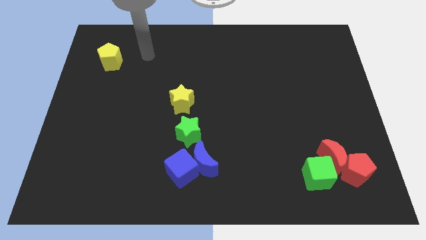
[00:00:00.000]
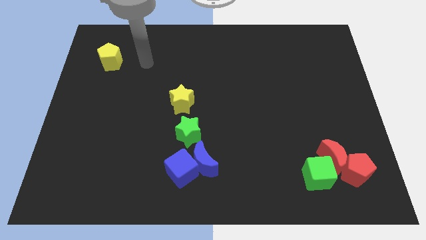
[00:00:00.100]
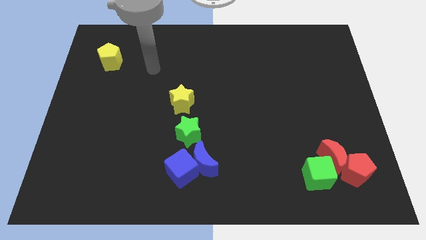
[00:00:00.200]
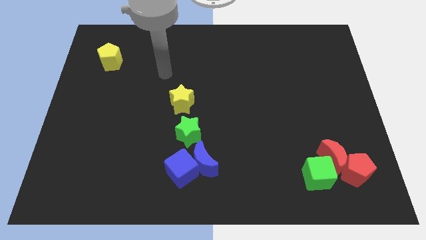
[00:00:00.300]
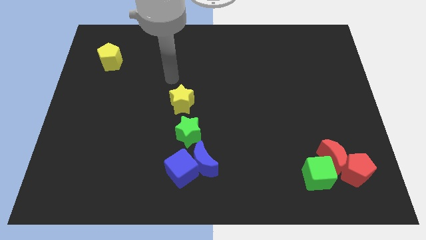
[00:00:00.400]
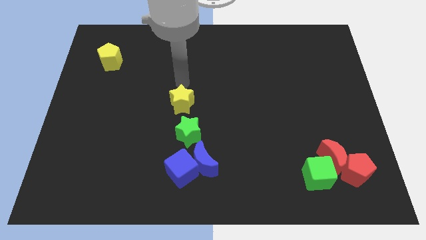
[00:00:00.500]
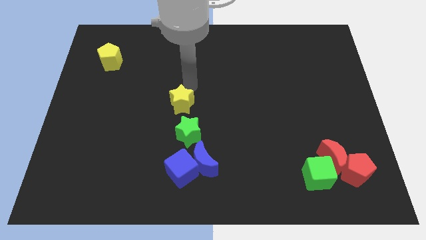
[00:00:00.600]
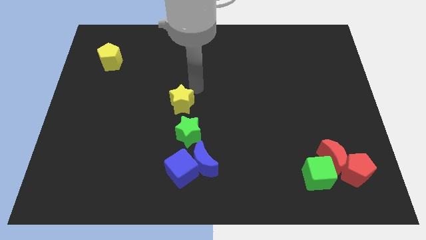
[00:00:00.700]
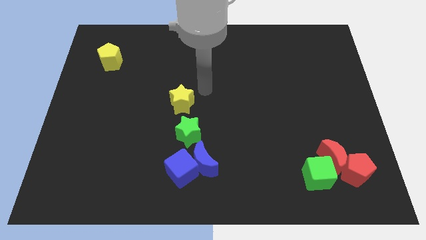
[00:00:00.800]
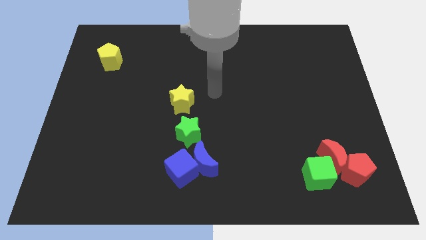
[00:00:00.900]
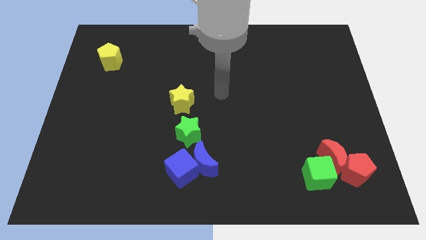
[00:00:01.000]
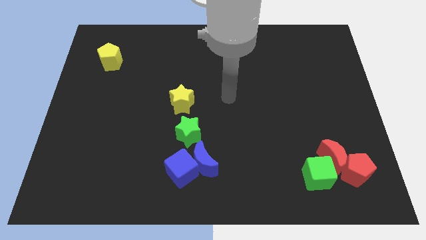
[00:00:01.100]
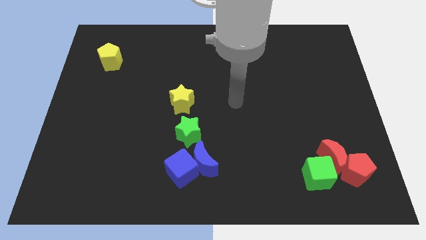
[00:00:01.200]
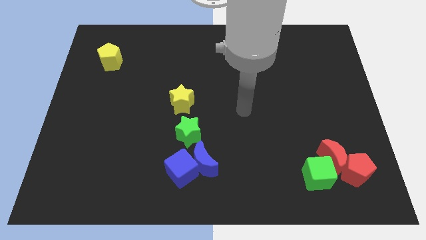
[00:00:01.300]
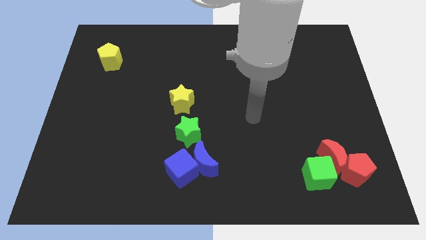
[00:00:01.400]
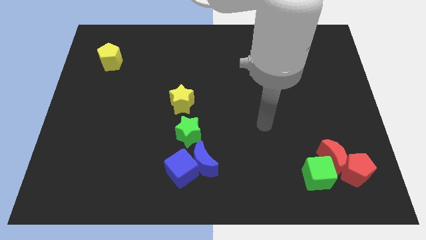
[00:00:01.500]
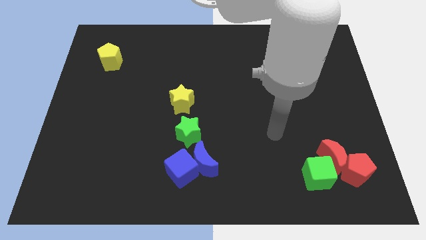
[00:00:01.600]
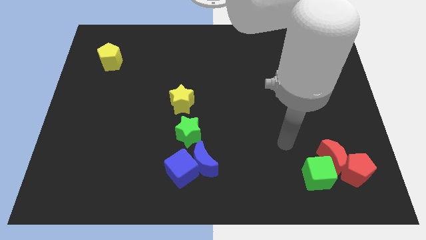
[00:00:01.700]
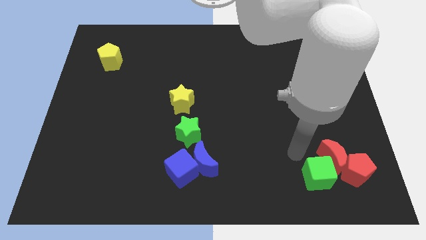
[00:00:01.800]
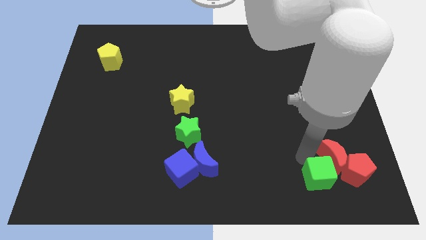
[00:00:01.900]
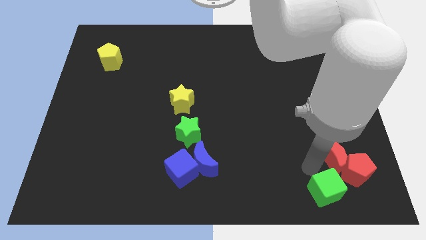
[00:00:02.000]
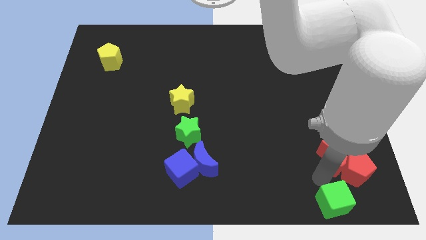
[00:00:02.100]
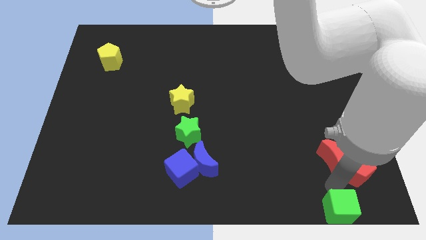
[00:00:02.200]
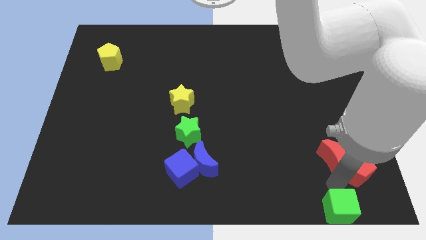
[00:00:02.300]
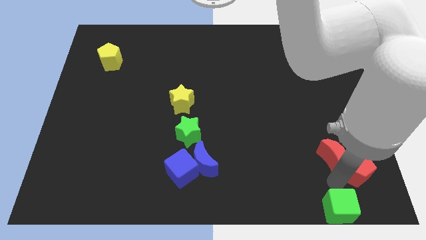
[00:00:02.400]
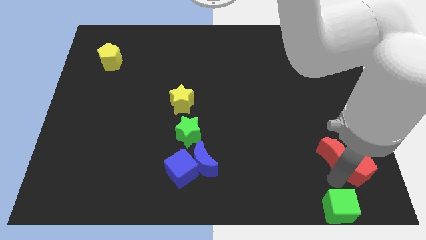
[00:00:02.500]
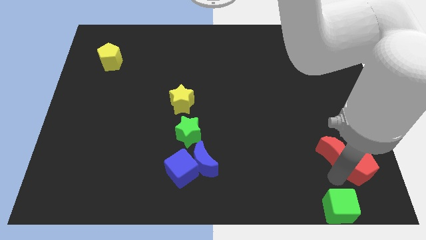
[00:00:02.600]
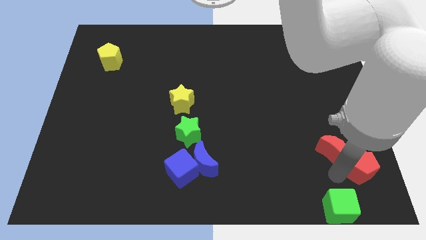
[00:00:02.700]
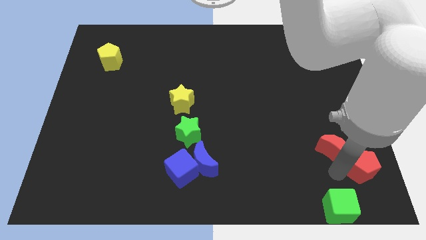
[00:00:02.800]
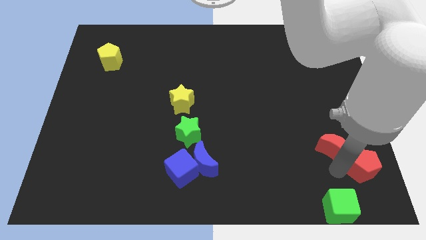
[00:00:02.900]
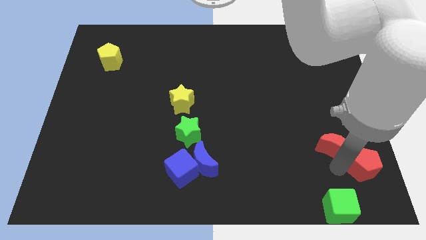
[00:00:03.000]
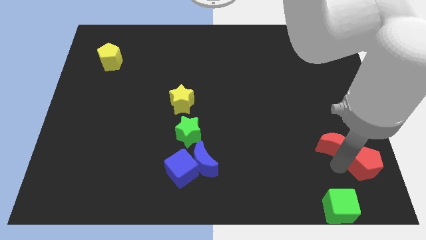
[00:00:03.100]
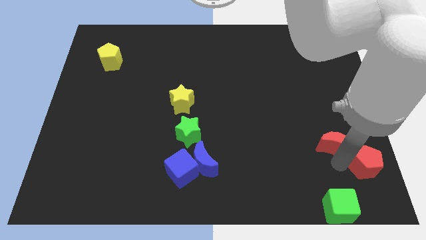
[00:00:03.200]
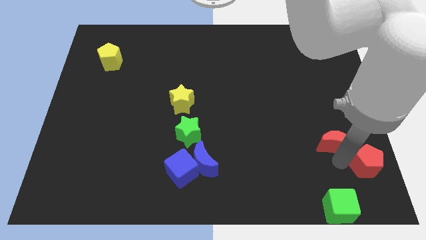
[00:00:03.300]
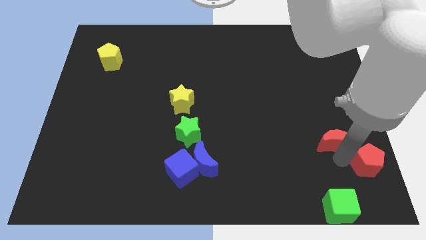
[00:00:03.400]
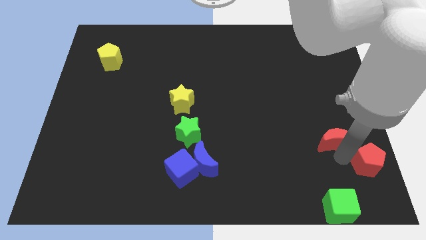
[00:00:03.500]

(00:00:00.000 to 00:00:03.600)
move the red moon away from the red pentagon and green cube

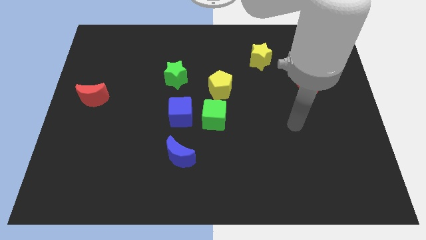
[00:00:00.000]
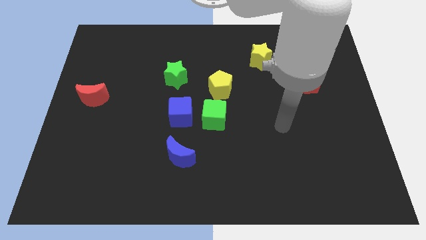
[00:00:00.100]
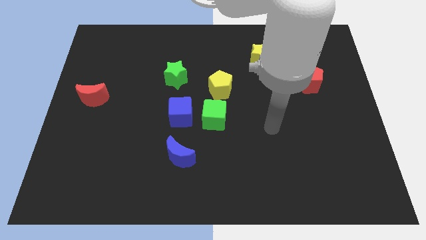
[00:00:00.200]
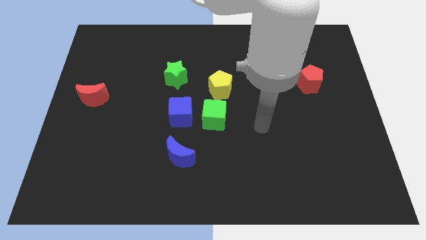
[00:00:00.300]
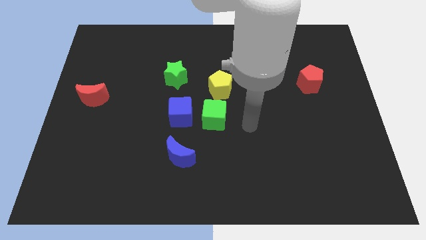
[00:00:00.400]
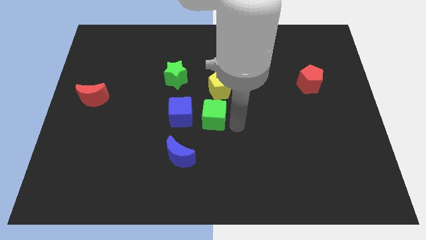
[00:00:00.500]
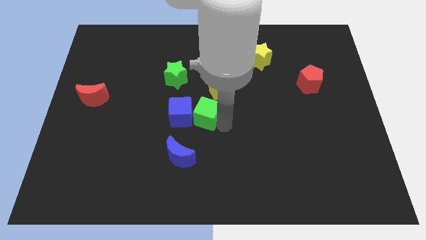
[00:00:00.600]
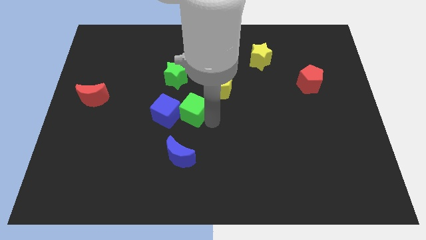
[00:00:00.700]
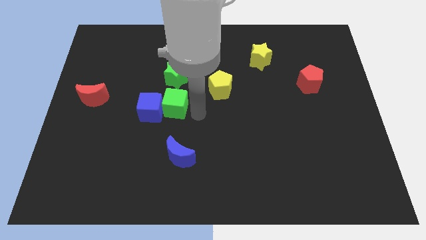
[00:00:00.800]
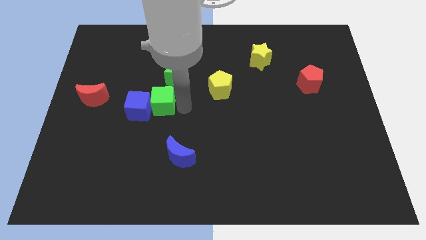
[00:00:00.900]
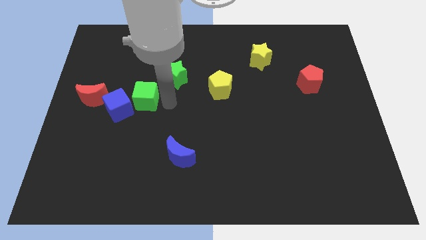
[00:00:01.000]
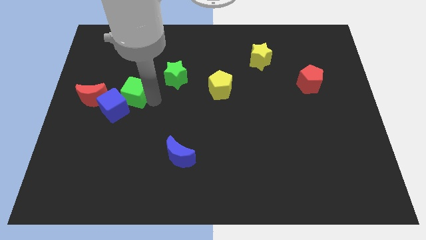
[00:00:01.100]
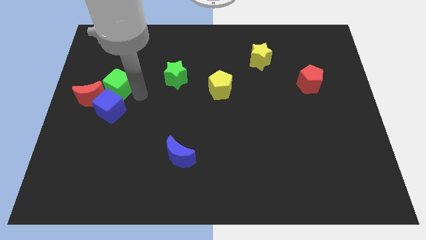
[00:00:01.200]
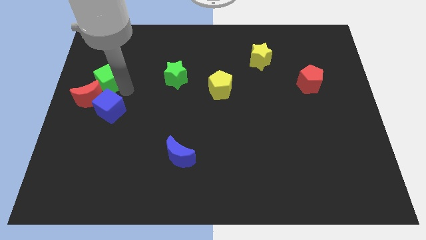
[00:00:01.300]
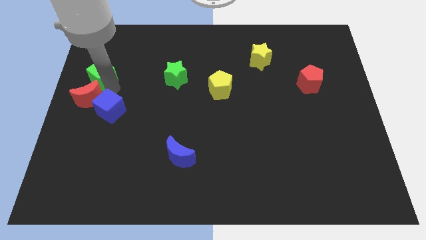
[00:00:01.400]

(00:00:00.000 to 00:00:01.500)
separate the blue cube from the green cube

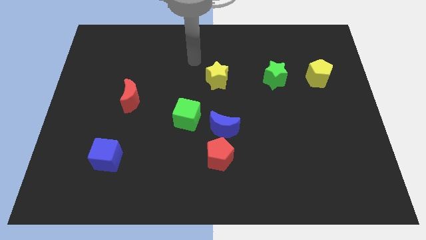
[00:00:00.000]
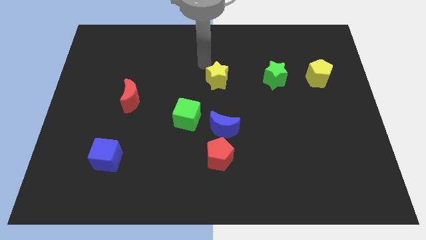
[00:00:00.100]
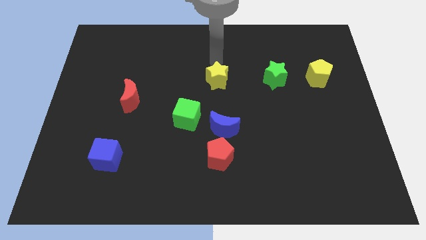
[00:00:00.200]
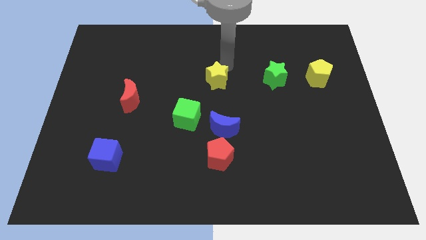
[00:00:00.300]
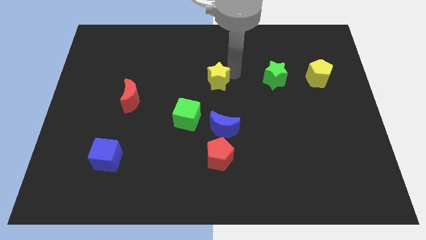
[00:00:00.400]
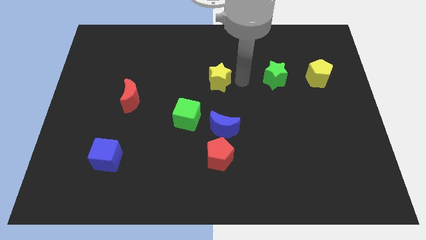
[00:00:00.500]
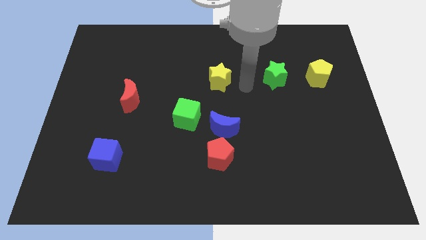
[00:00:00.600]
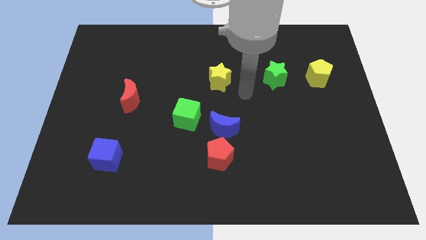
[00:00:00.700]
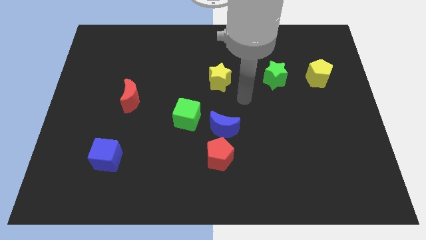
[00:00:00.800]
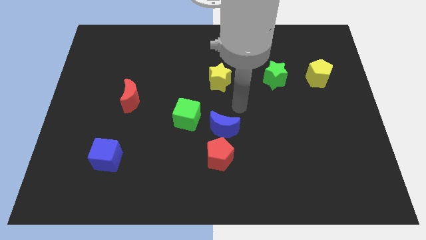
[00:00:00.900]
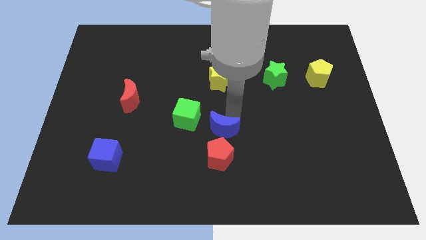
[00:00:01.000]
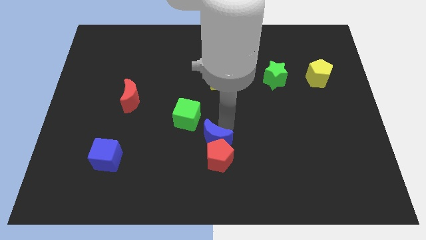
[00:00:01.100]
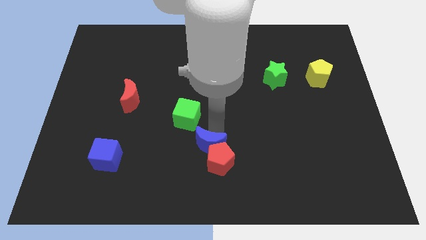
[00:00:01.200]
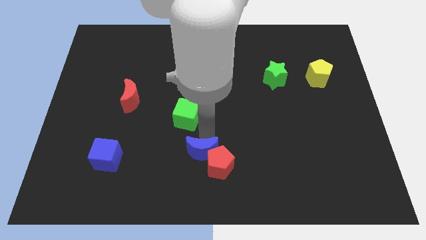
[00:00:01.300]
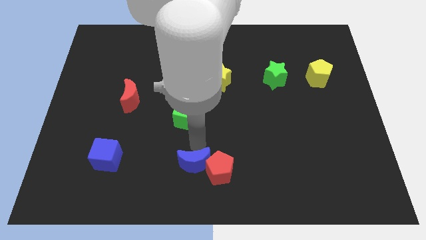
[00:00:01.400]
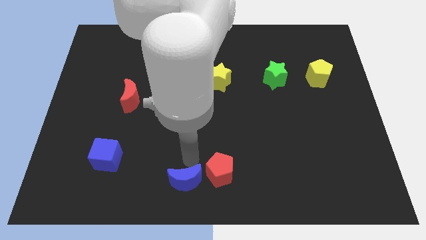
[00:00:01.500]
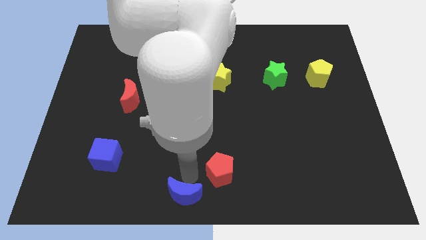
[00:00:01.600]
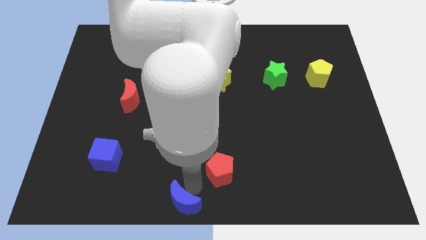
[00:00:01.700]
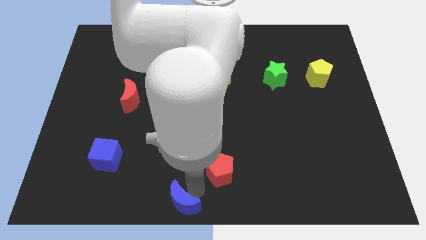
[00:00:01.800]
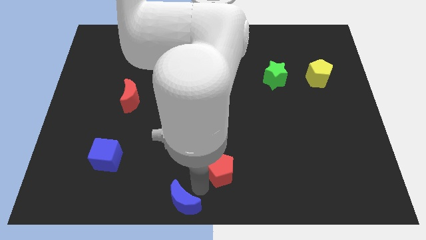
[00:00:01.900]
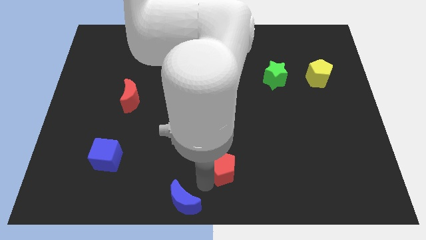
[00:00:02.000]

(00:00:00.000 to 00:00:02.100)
separate the red pentagon from the blue moon

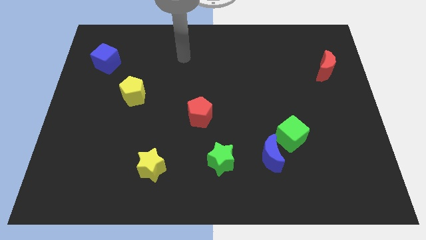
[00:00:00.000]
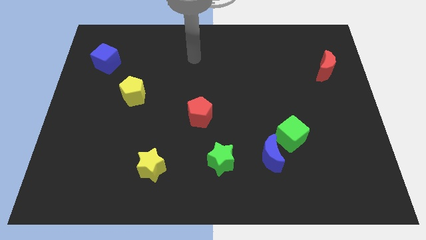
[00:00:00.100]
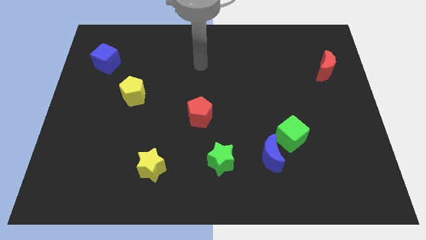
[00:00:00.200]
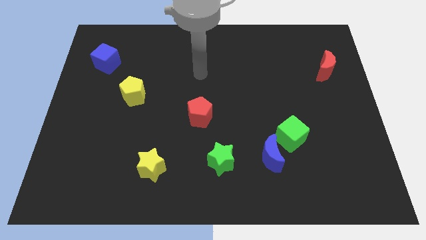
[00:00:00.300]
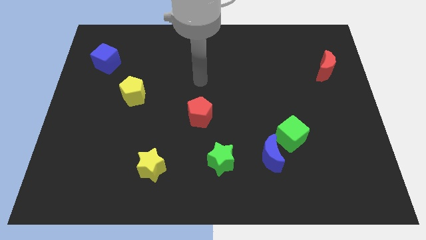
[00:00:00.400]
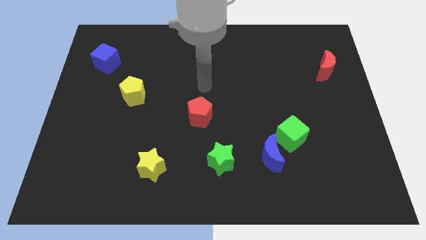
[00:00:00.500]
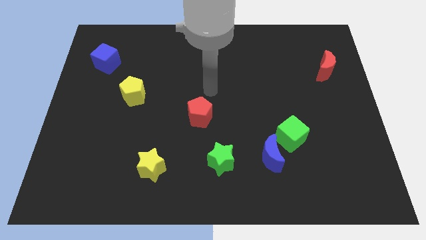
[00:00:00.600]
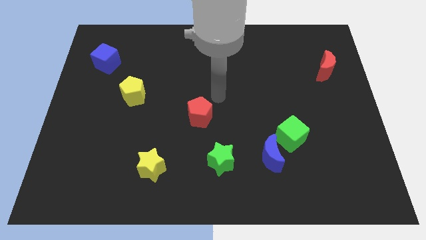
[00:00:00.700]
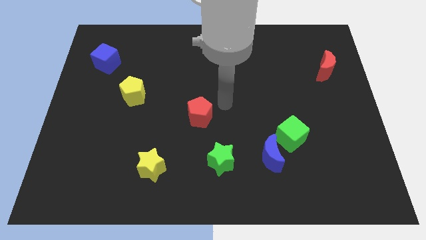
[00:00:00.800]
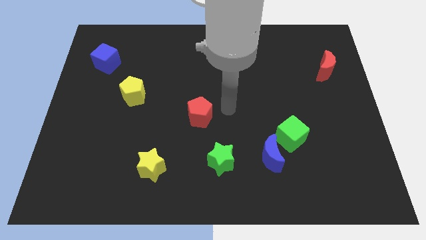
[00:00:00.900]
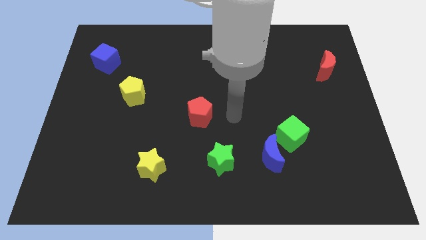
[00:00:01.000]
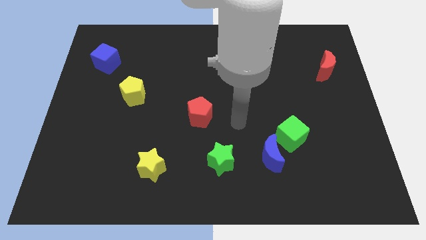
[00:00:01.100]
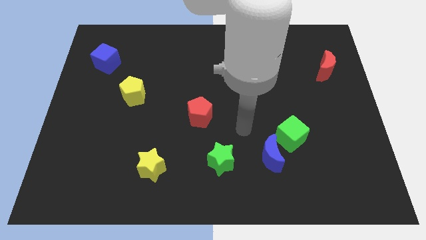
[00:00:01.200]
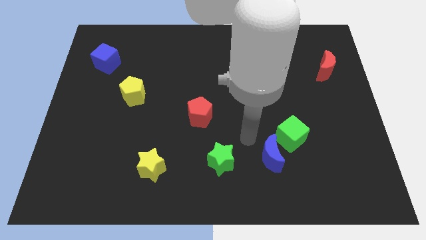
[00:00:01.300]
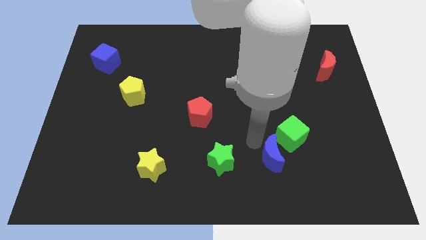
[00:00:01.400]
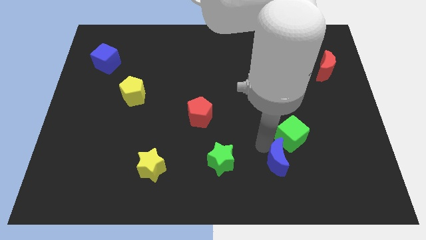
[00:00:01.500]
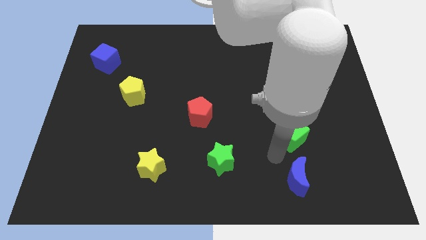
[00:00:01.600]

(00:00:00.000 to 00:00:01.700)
separate the green cube from the blue moon

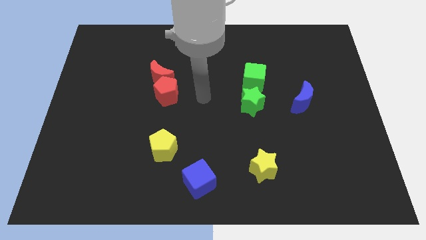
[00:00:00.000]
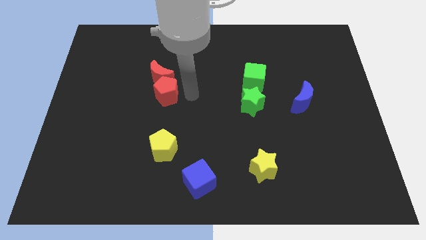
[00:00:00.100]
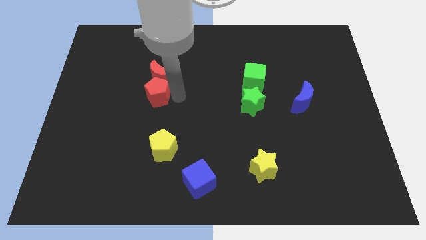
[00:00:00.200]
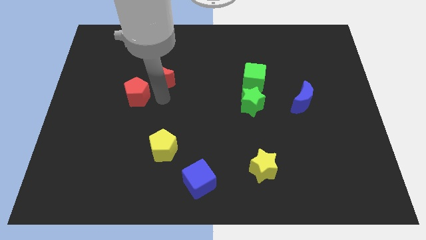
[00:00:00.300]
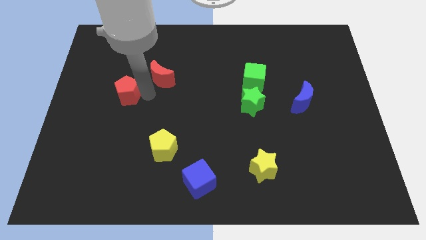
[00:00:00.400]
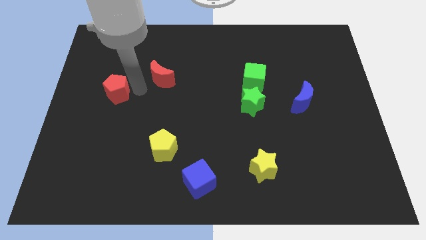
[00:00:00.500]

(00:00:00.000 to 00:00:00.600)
move the red moon away from the red pentagon
